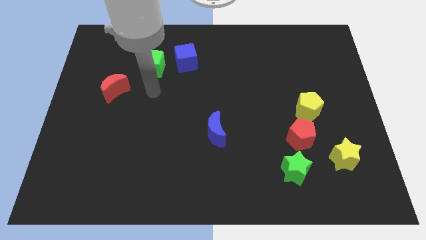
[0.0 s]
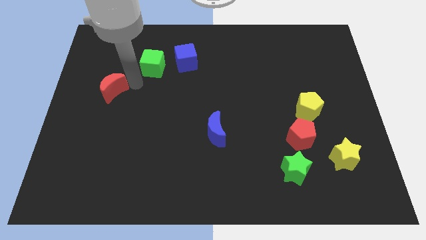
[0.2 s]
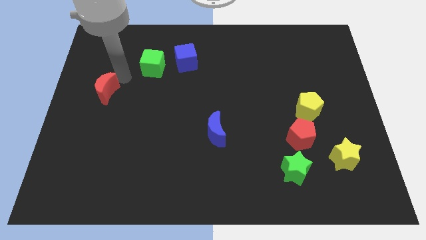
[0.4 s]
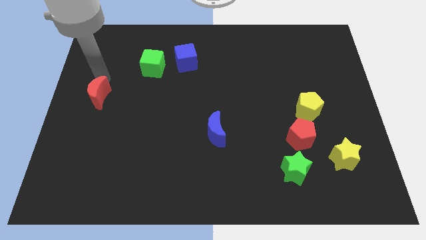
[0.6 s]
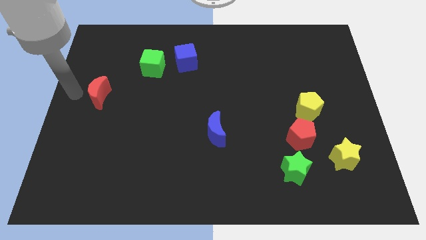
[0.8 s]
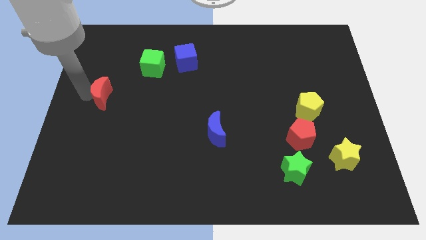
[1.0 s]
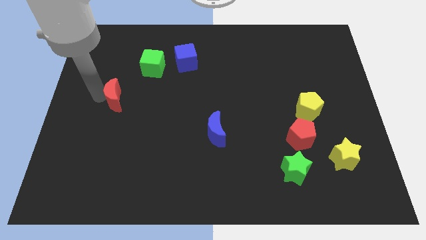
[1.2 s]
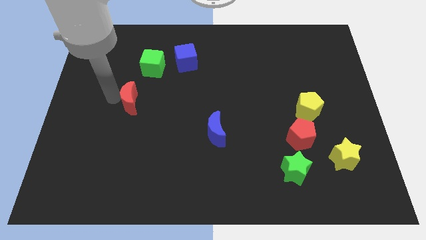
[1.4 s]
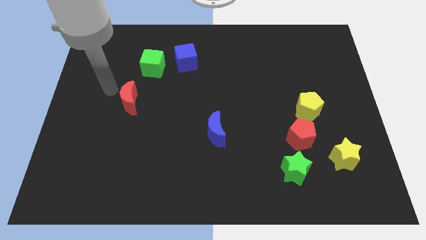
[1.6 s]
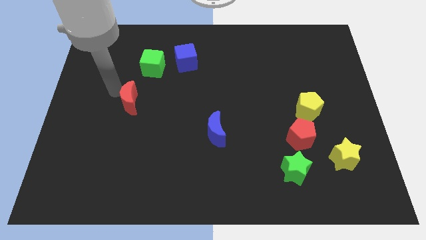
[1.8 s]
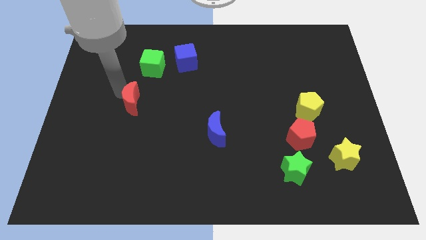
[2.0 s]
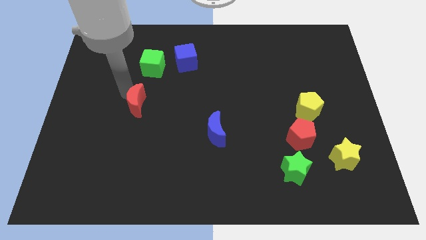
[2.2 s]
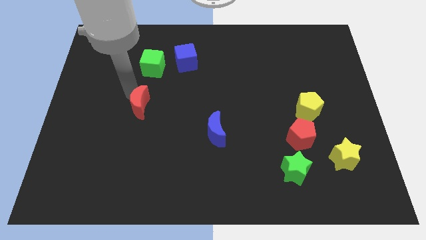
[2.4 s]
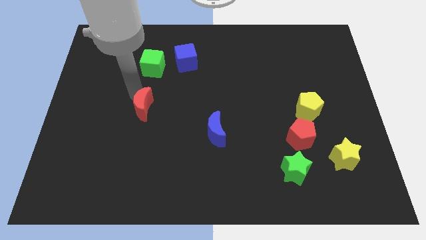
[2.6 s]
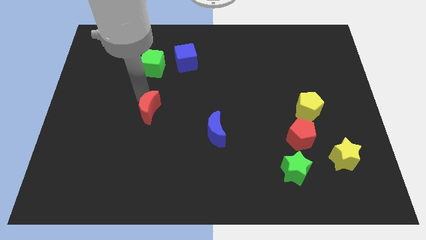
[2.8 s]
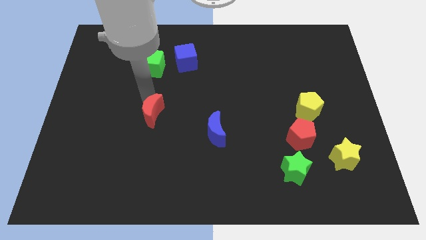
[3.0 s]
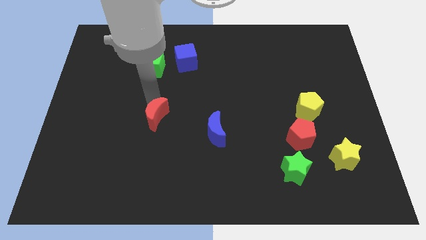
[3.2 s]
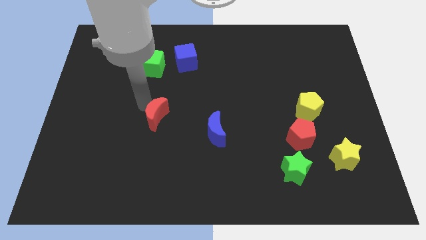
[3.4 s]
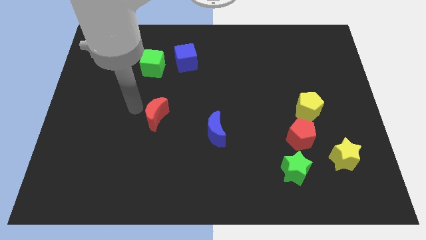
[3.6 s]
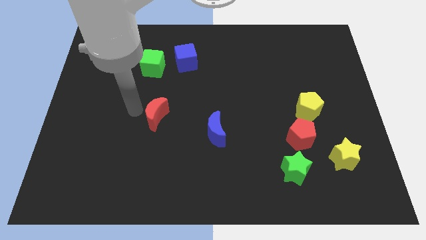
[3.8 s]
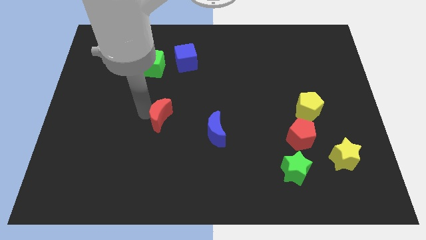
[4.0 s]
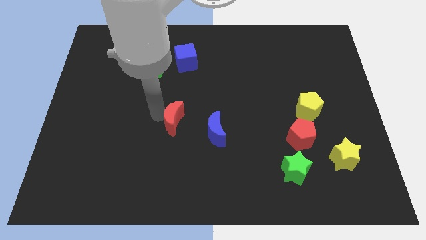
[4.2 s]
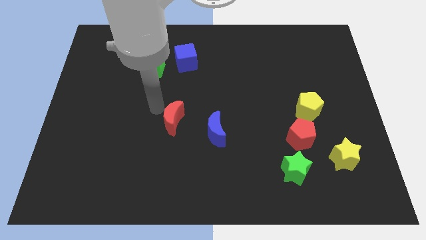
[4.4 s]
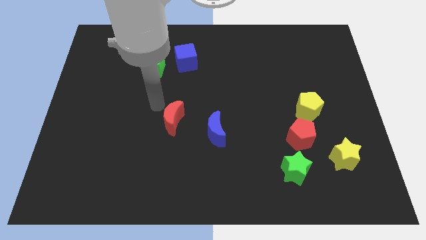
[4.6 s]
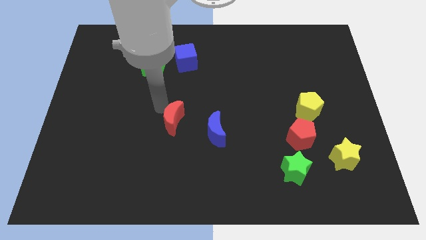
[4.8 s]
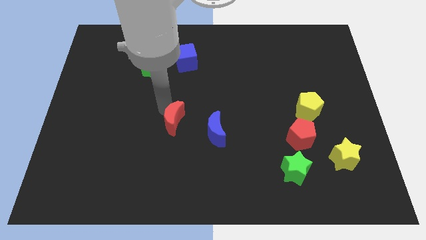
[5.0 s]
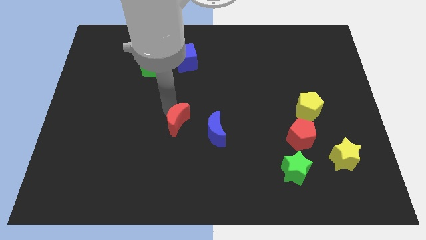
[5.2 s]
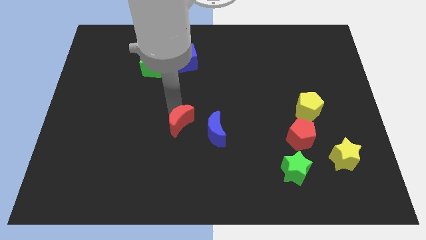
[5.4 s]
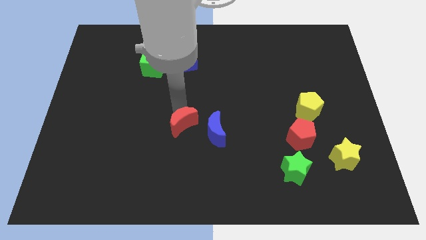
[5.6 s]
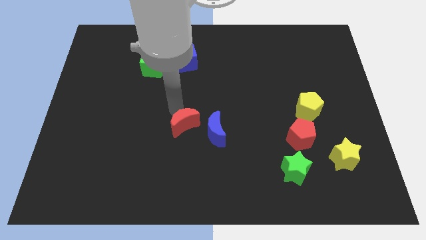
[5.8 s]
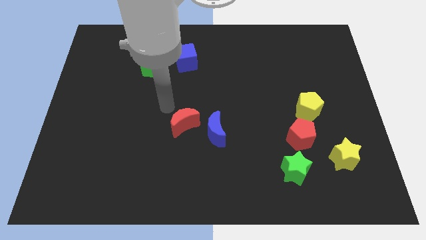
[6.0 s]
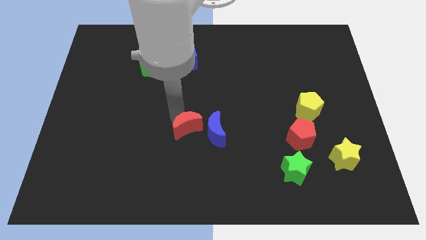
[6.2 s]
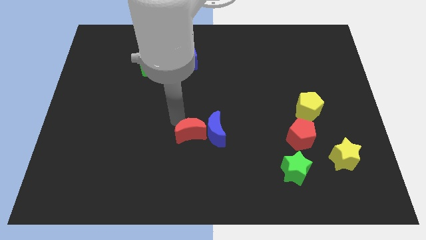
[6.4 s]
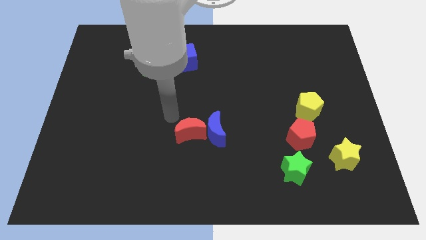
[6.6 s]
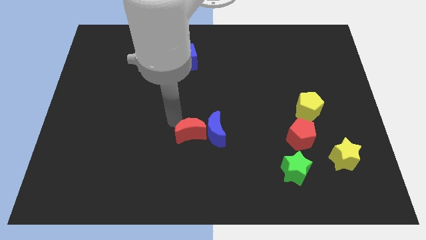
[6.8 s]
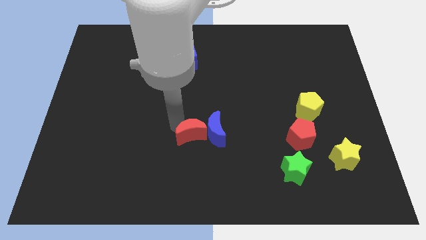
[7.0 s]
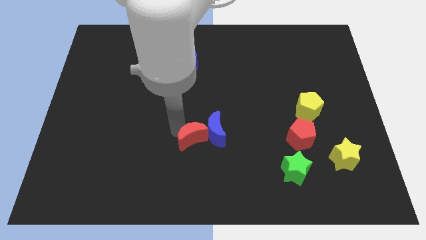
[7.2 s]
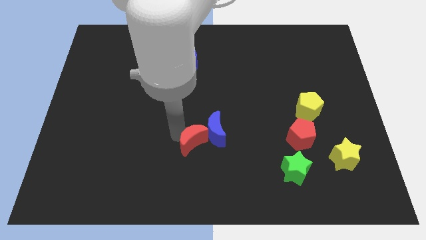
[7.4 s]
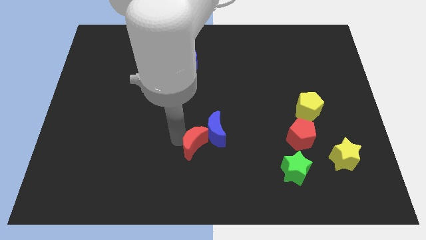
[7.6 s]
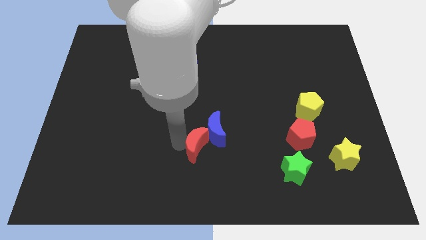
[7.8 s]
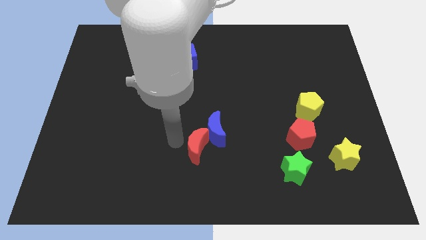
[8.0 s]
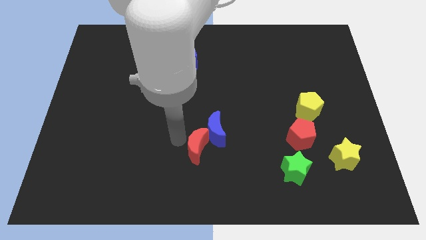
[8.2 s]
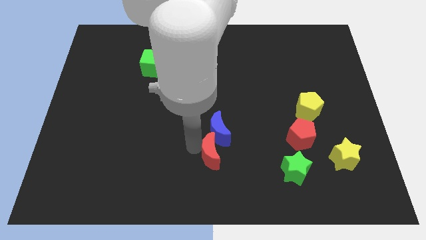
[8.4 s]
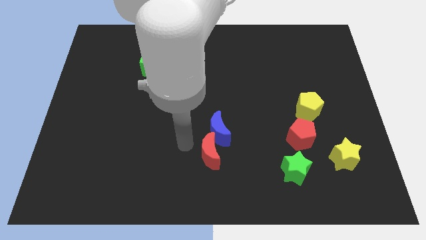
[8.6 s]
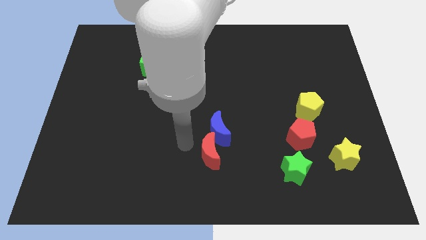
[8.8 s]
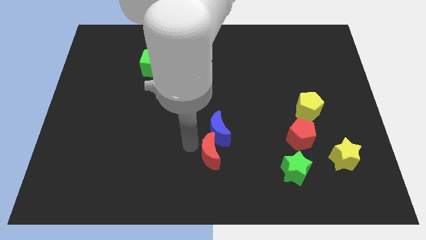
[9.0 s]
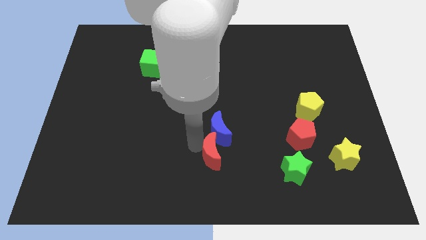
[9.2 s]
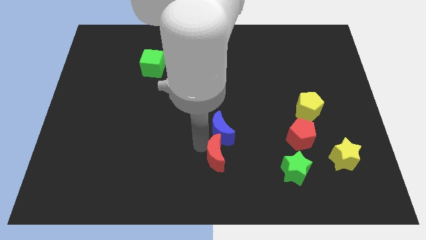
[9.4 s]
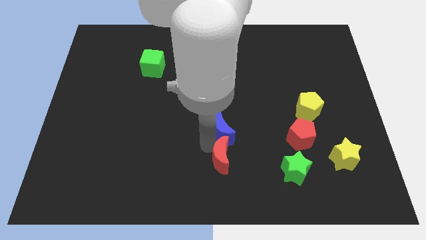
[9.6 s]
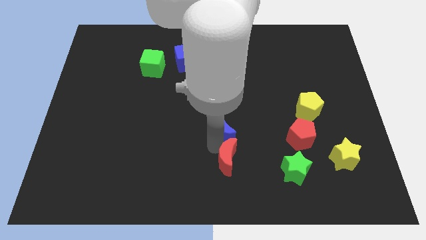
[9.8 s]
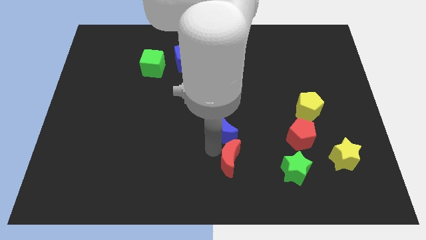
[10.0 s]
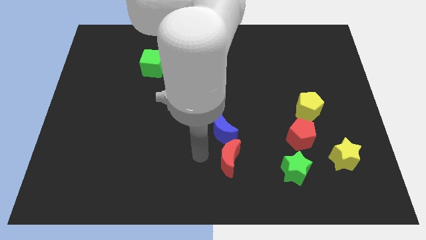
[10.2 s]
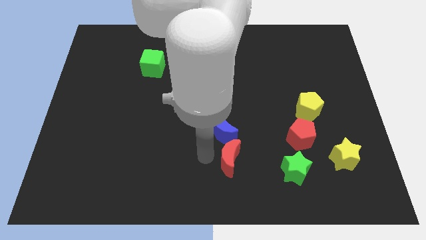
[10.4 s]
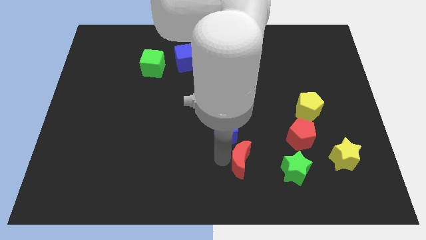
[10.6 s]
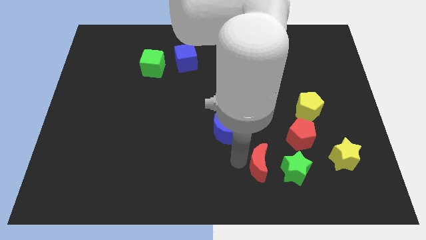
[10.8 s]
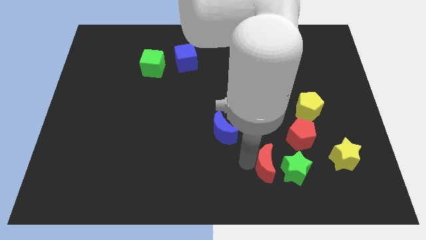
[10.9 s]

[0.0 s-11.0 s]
move the red moon close to the green star

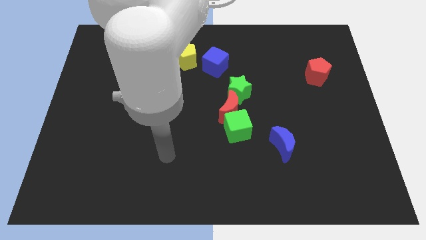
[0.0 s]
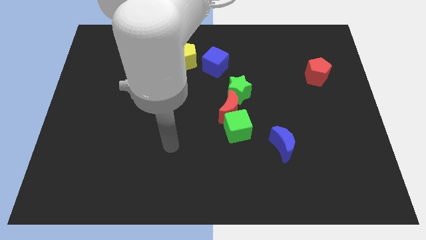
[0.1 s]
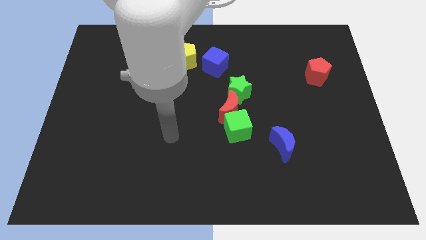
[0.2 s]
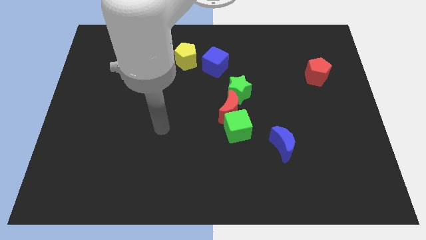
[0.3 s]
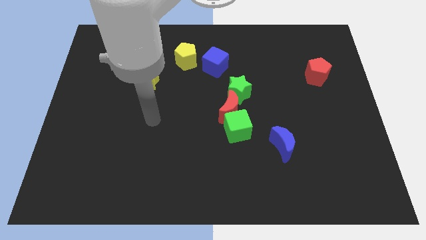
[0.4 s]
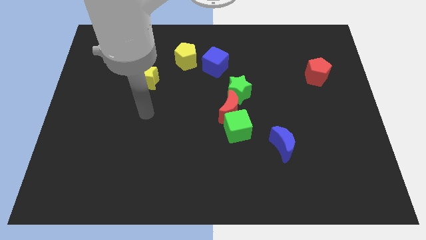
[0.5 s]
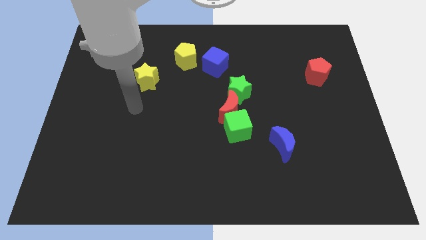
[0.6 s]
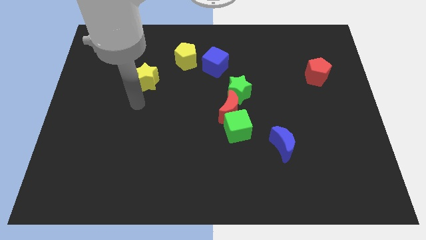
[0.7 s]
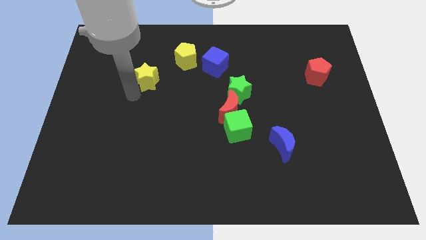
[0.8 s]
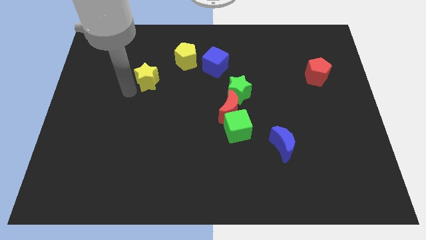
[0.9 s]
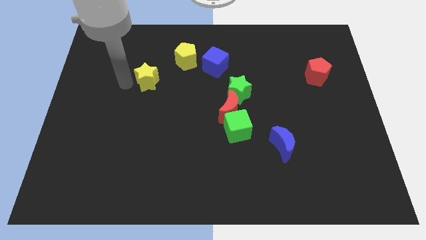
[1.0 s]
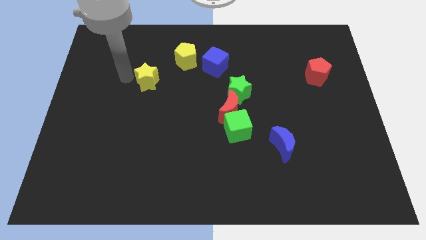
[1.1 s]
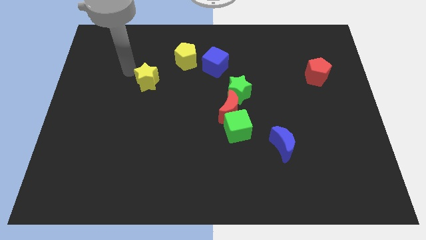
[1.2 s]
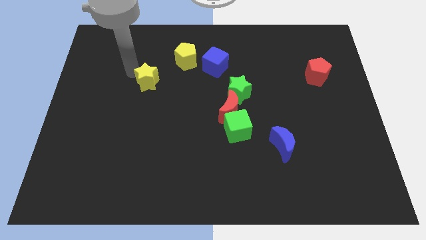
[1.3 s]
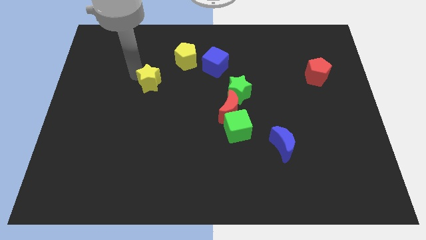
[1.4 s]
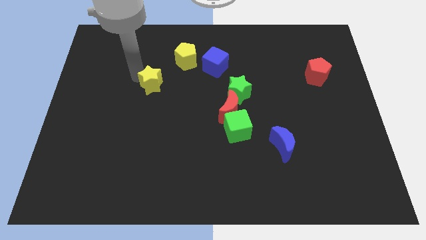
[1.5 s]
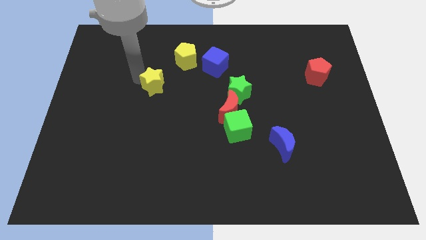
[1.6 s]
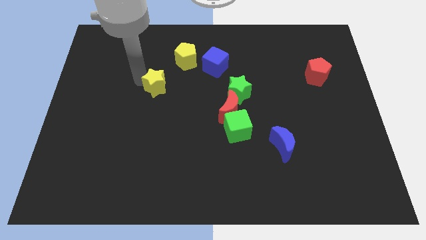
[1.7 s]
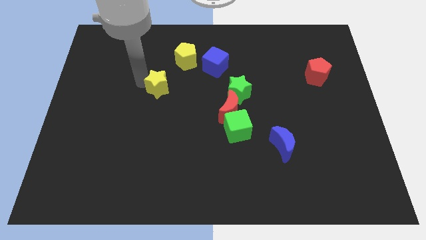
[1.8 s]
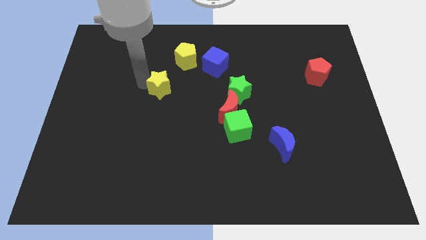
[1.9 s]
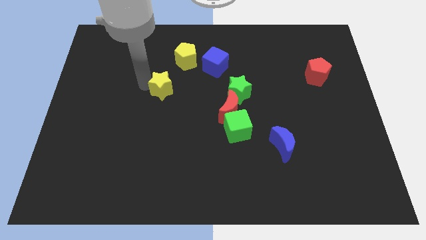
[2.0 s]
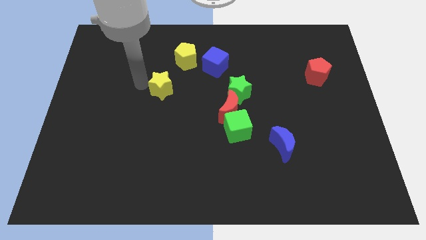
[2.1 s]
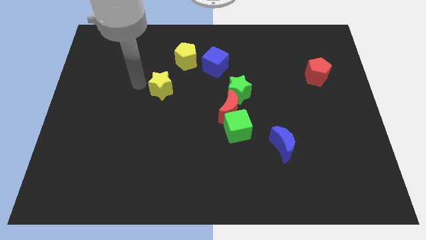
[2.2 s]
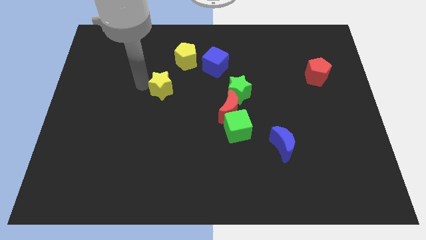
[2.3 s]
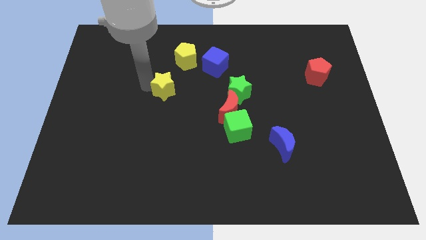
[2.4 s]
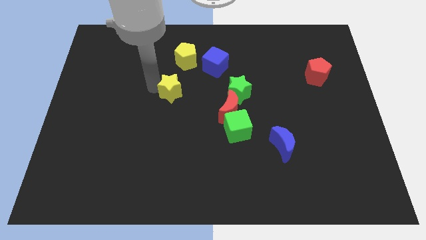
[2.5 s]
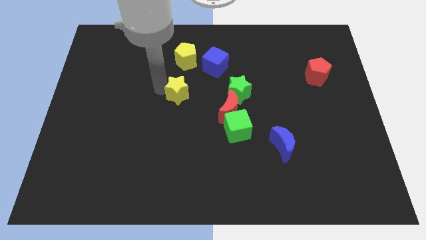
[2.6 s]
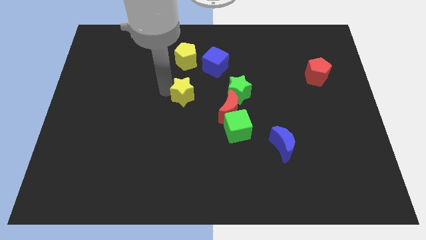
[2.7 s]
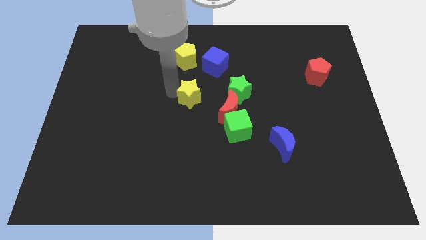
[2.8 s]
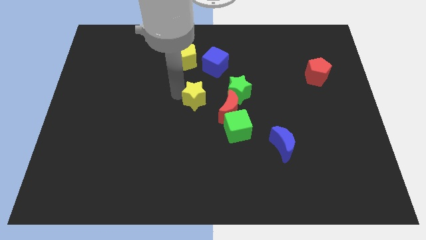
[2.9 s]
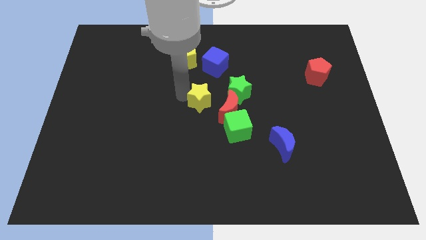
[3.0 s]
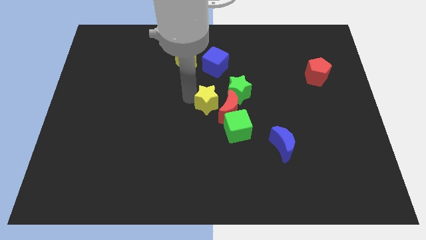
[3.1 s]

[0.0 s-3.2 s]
put the yellow star towards the red moon
